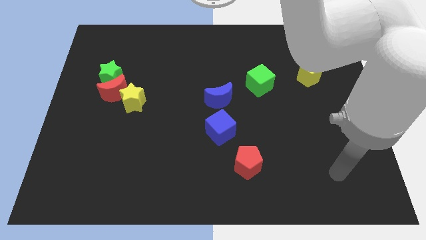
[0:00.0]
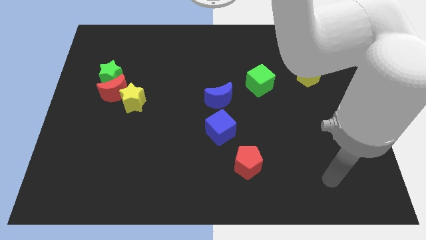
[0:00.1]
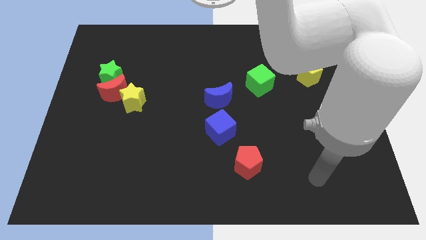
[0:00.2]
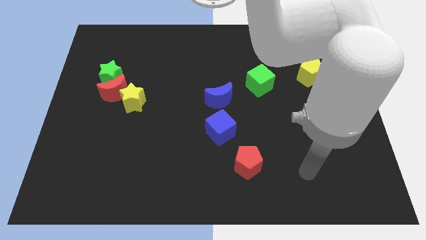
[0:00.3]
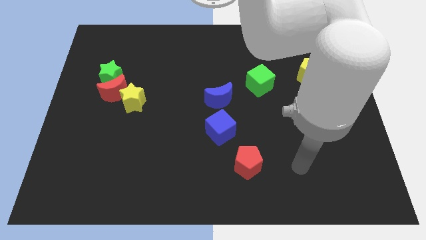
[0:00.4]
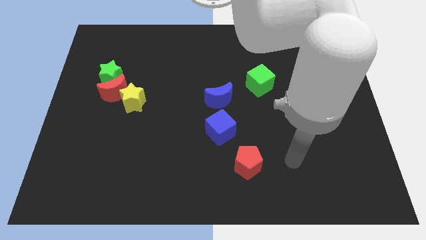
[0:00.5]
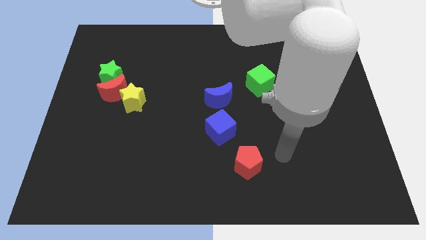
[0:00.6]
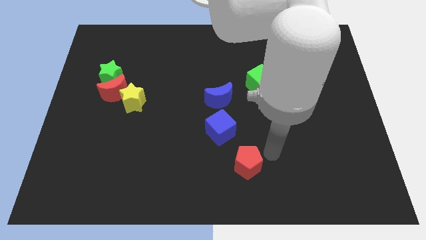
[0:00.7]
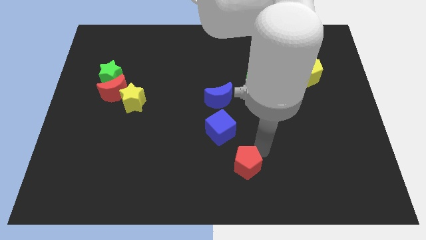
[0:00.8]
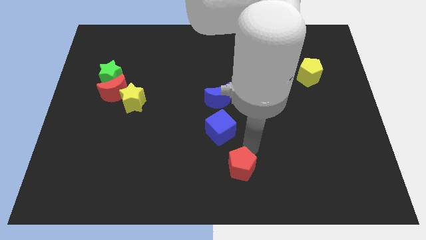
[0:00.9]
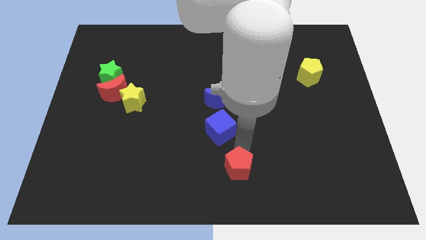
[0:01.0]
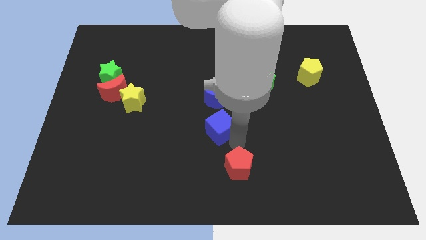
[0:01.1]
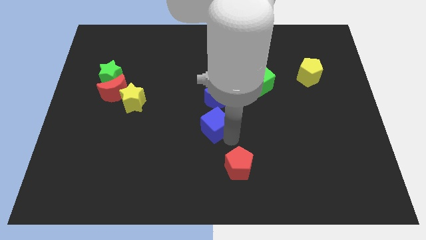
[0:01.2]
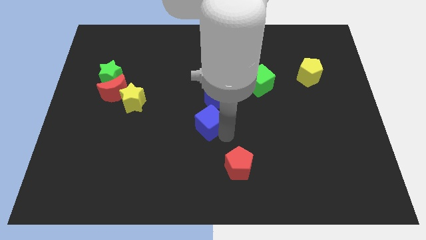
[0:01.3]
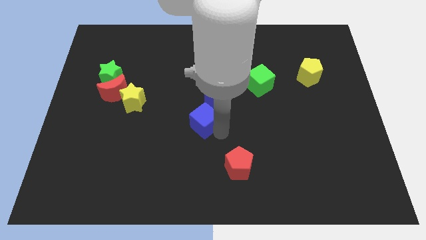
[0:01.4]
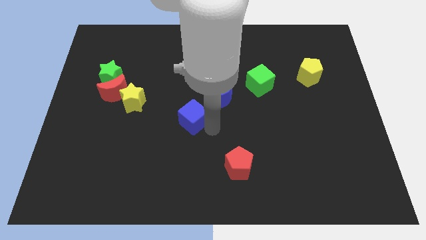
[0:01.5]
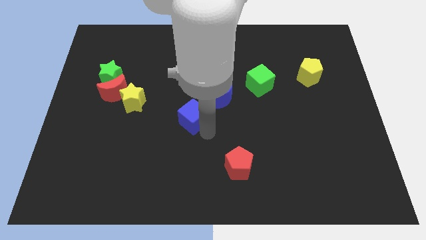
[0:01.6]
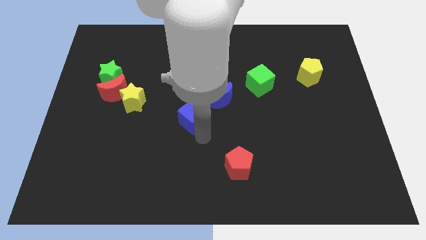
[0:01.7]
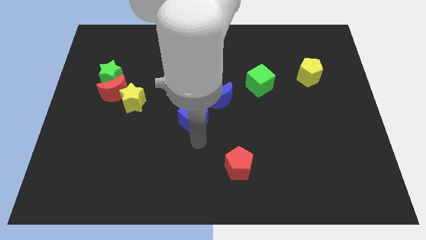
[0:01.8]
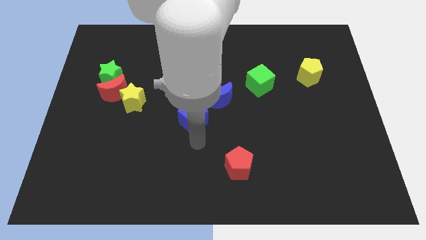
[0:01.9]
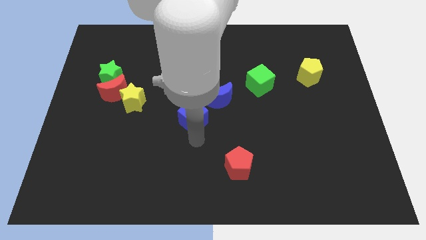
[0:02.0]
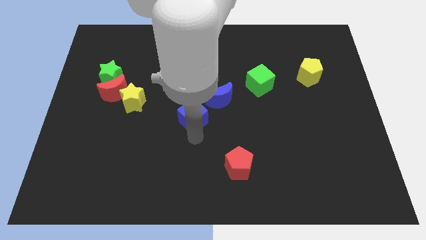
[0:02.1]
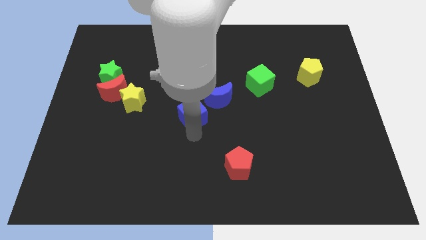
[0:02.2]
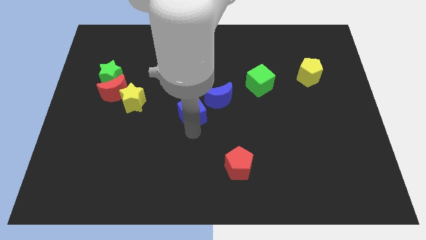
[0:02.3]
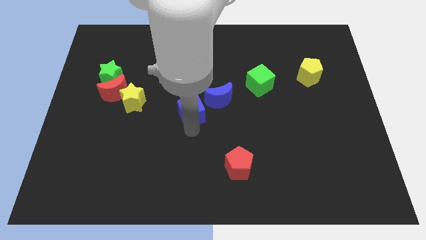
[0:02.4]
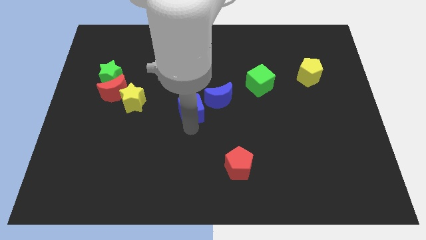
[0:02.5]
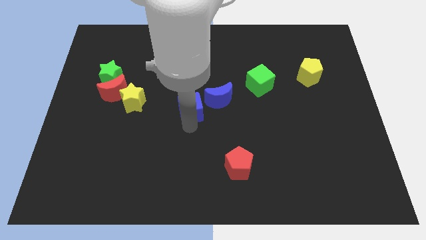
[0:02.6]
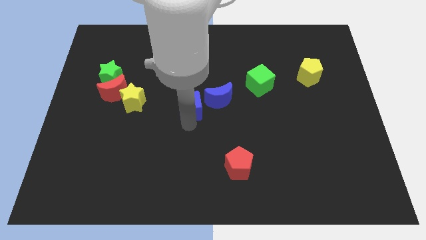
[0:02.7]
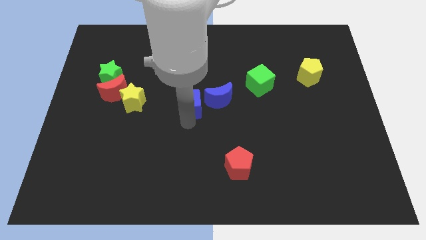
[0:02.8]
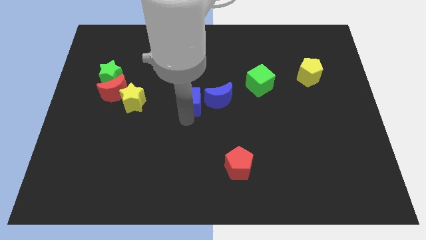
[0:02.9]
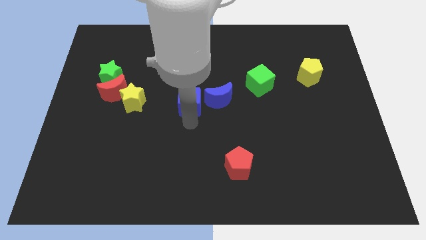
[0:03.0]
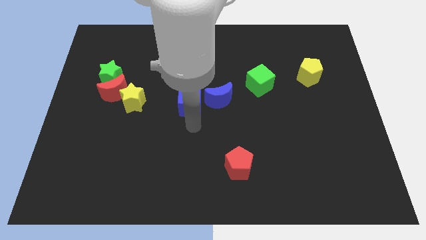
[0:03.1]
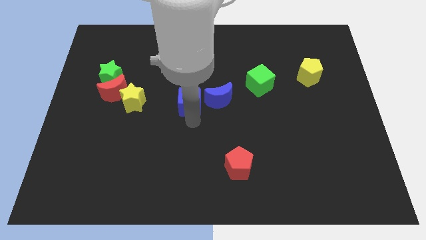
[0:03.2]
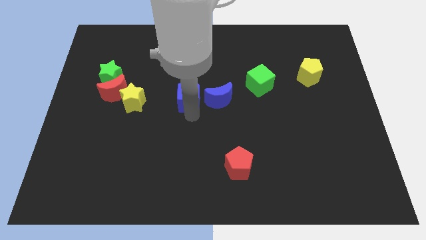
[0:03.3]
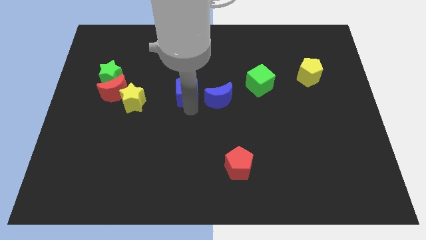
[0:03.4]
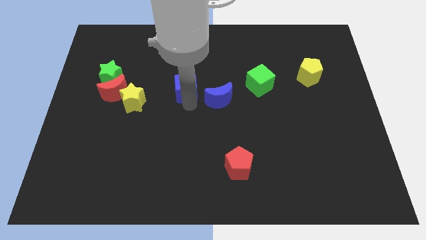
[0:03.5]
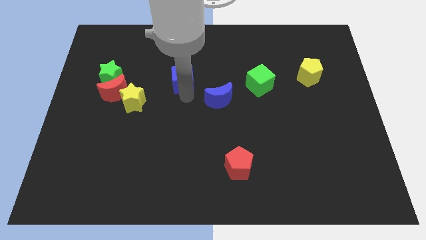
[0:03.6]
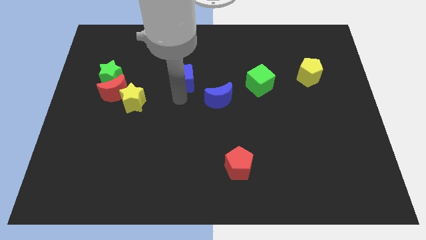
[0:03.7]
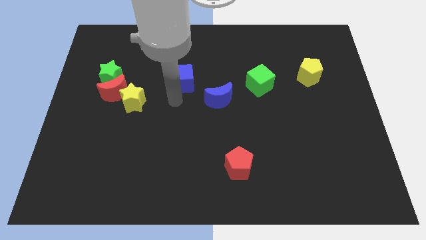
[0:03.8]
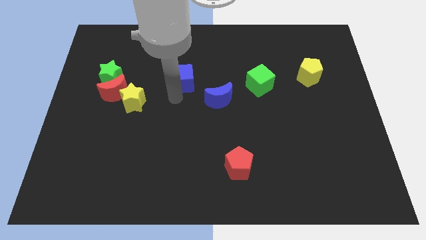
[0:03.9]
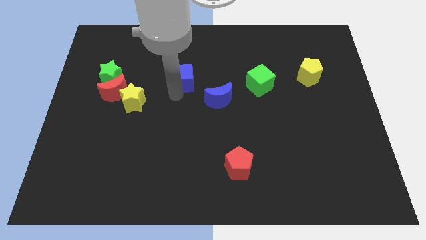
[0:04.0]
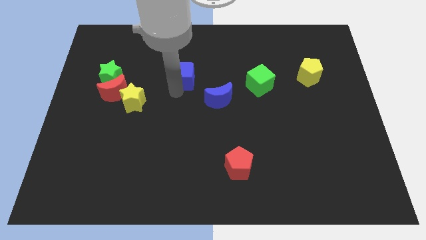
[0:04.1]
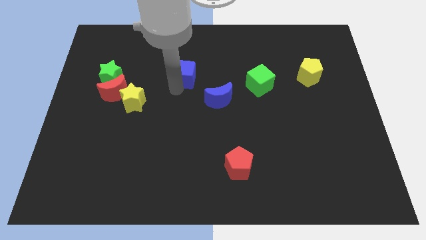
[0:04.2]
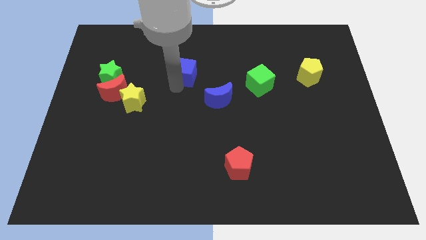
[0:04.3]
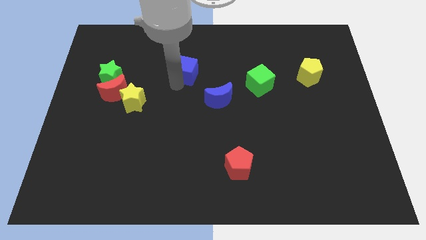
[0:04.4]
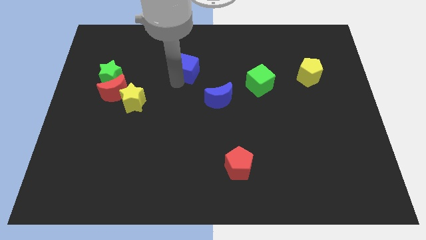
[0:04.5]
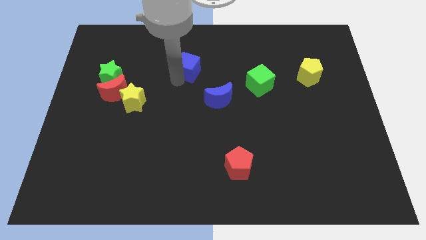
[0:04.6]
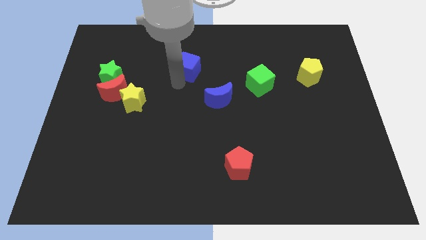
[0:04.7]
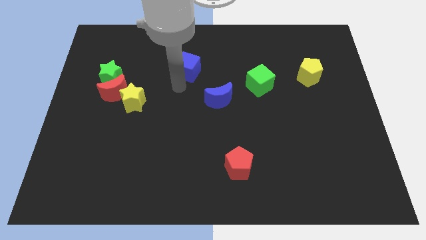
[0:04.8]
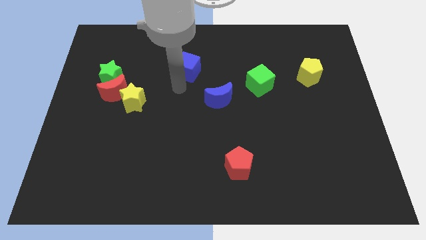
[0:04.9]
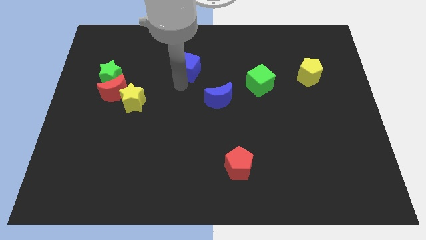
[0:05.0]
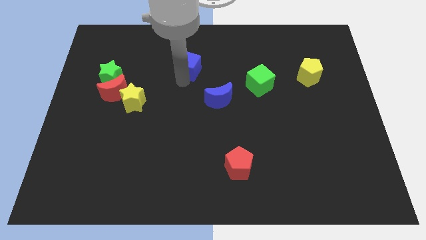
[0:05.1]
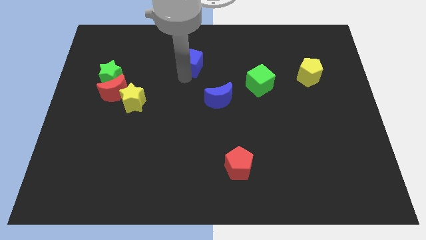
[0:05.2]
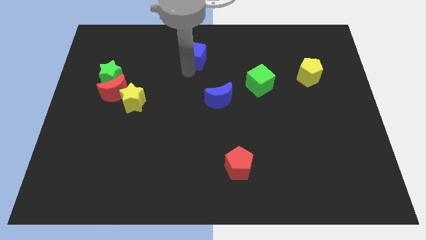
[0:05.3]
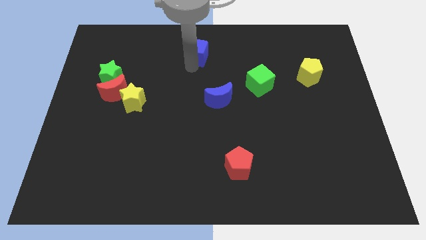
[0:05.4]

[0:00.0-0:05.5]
push the blue cube to the top side
